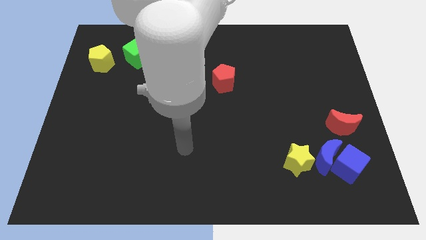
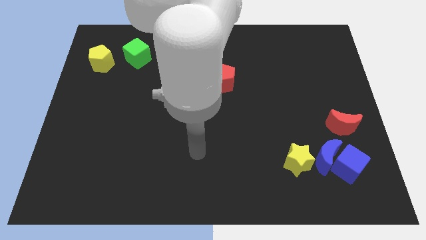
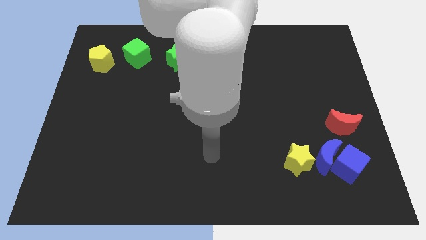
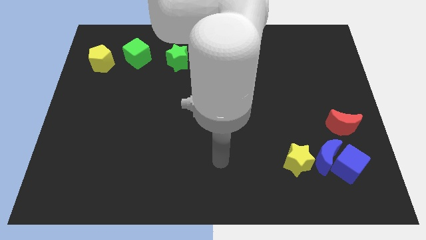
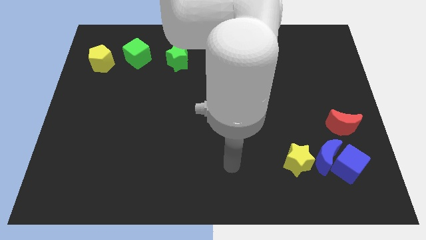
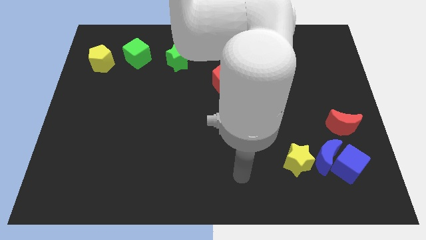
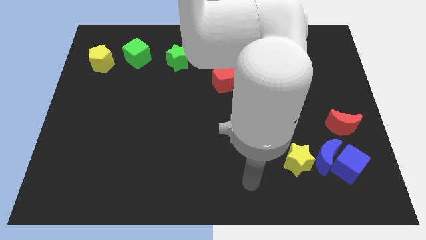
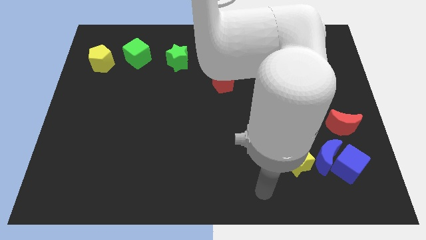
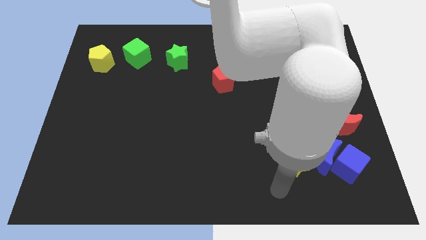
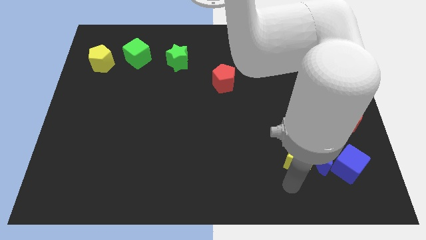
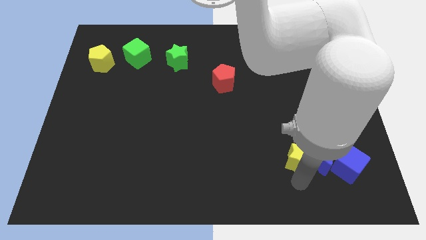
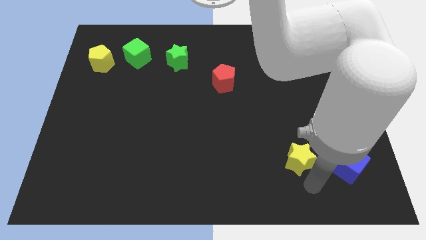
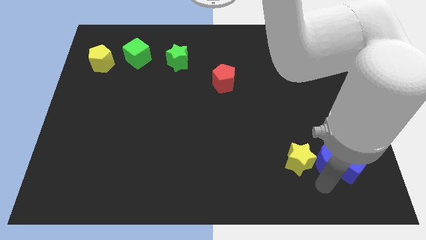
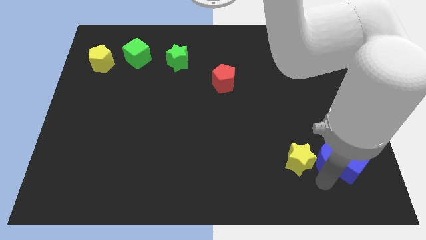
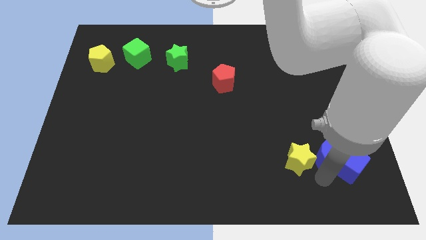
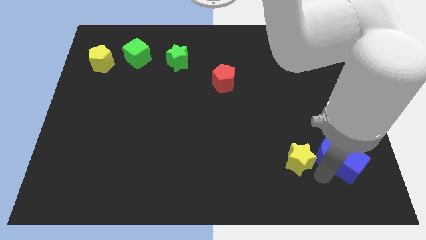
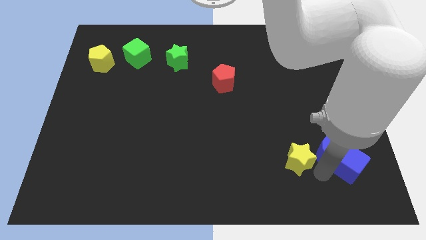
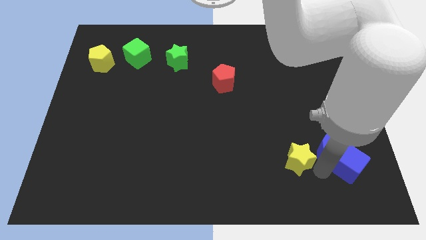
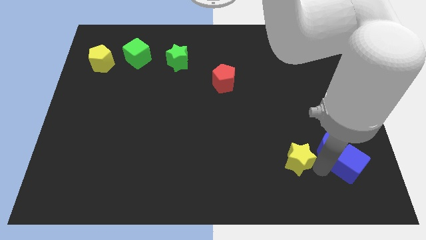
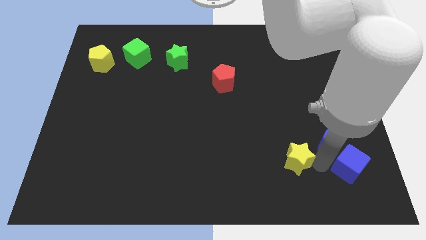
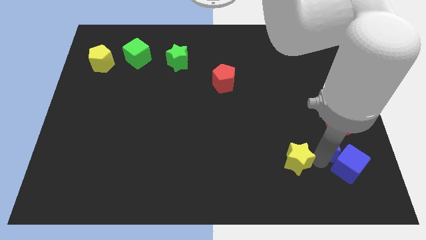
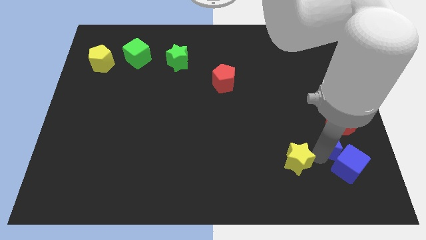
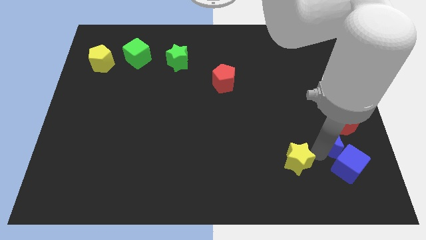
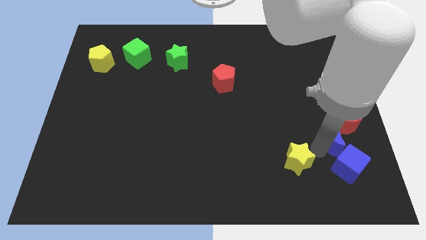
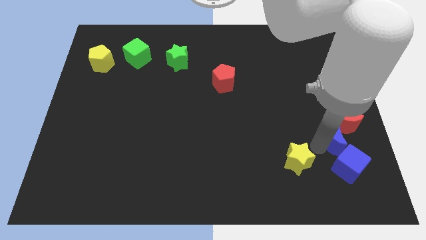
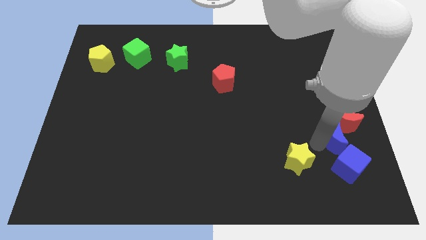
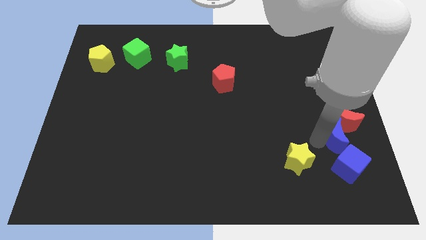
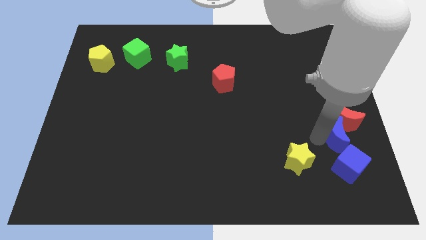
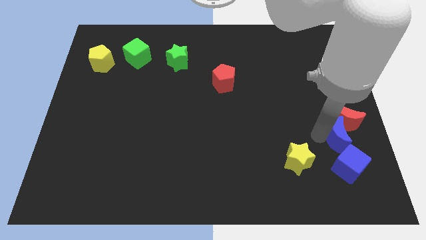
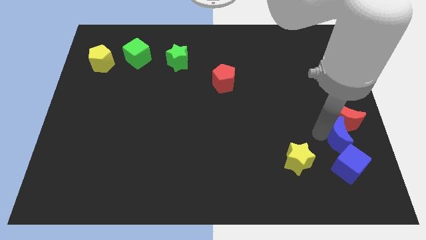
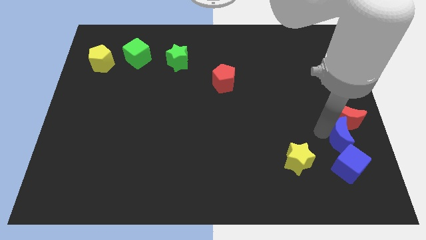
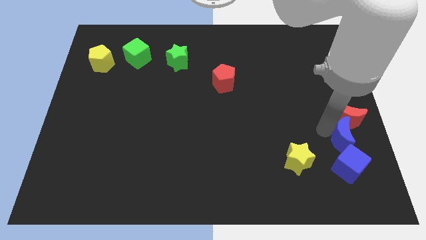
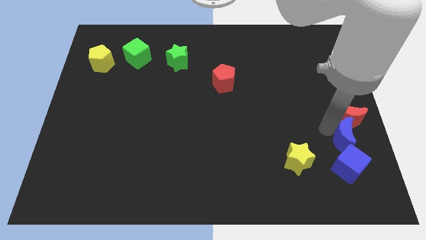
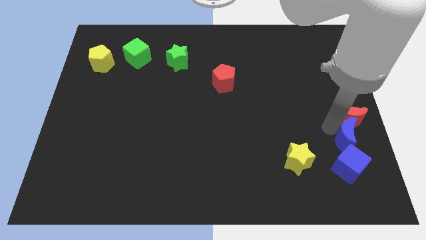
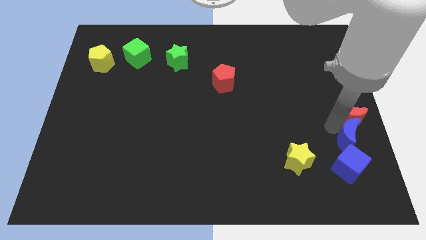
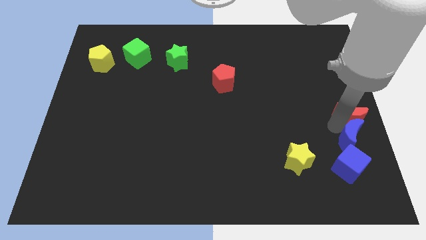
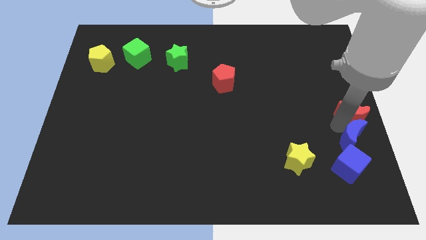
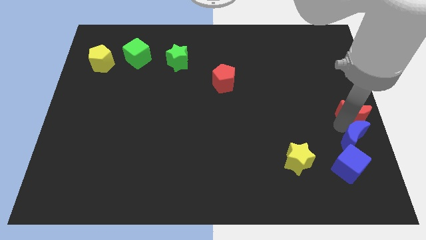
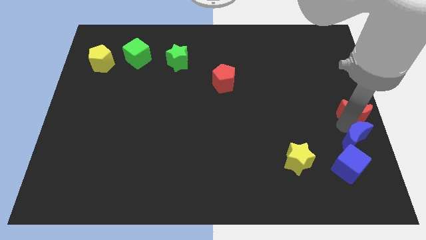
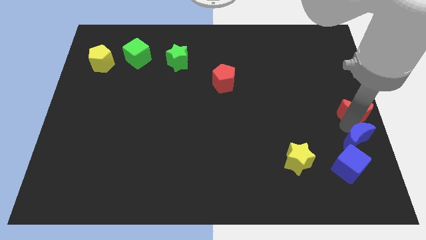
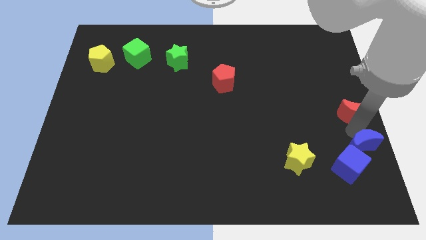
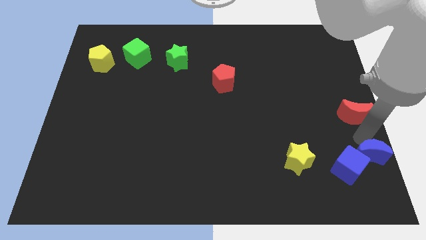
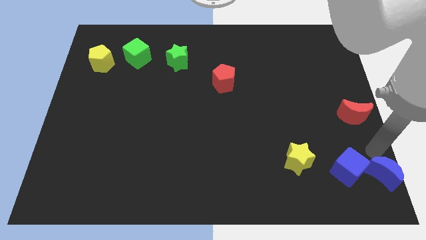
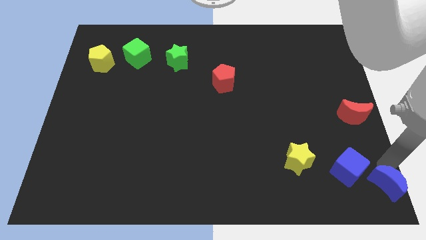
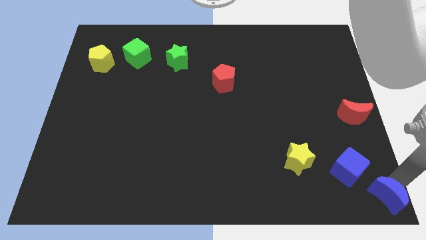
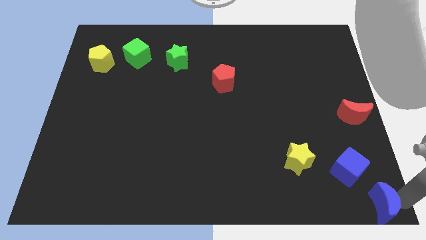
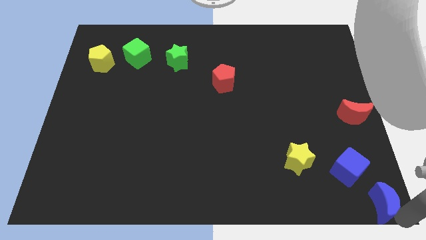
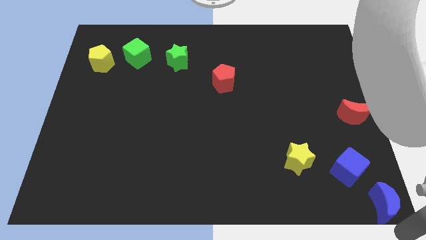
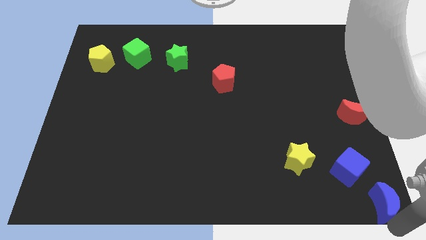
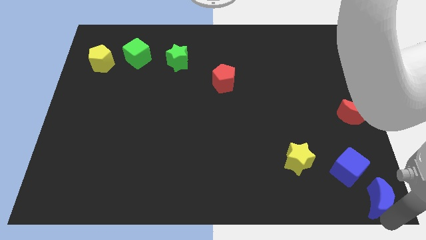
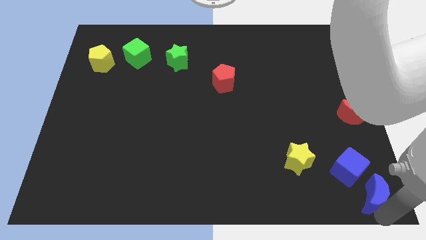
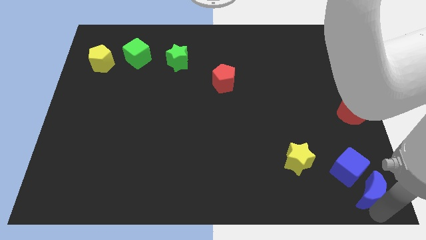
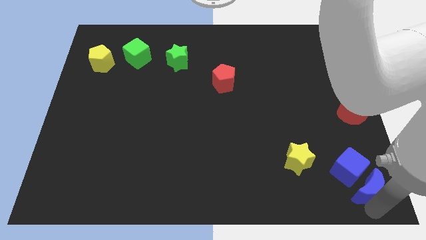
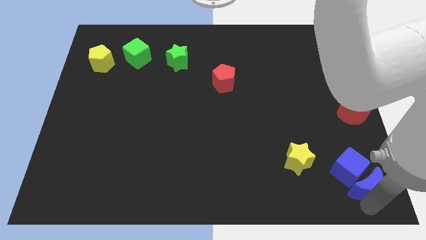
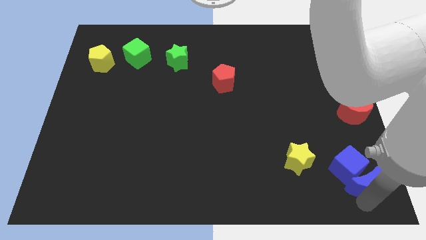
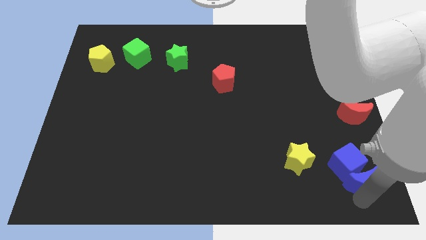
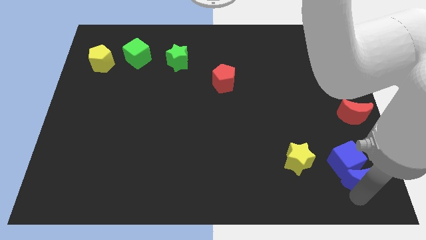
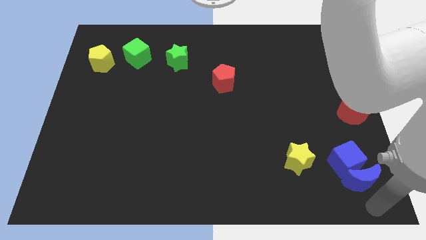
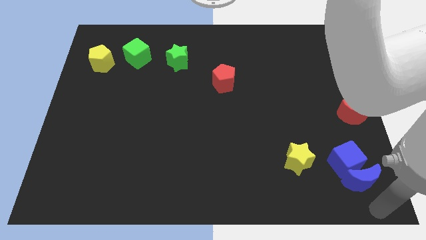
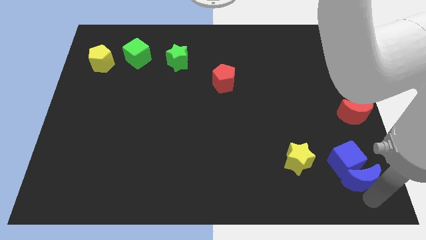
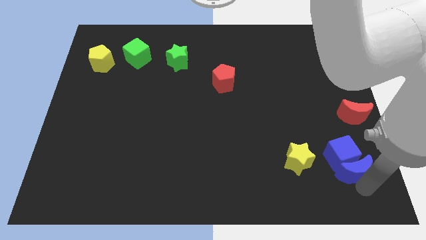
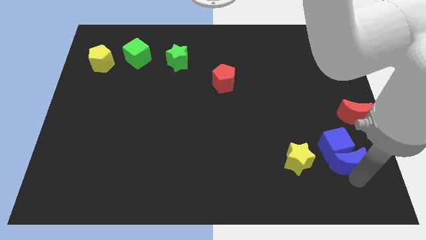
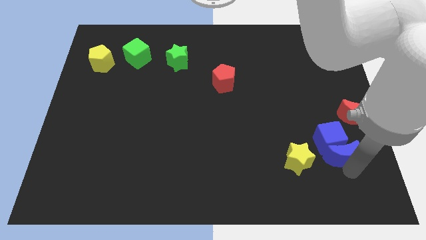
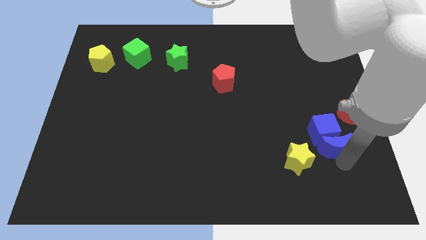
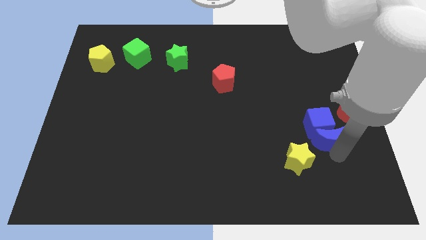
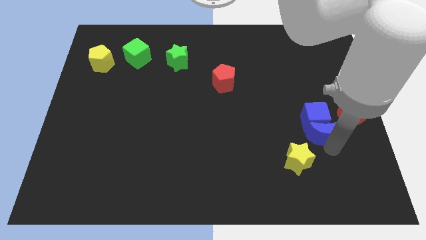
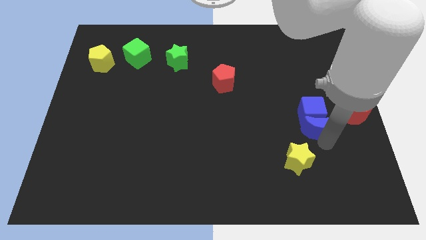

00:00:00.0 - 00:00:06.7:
move the blue moon a little bit upwards

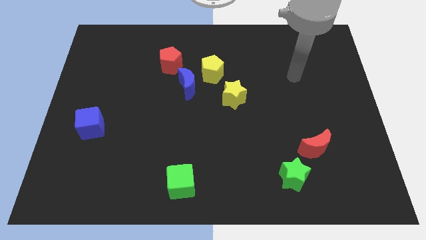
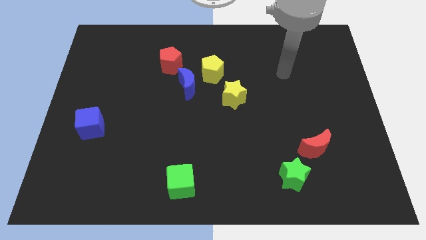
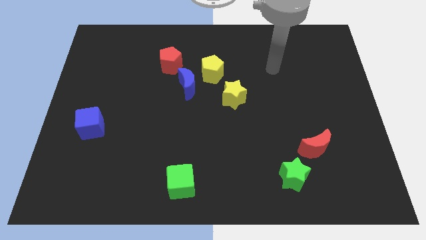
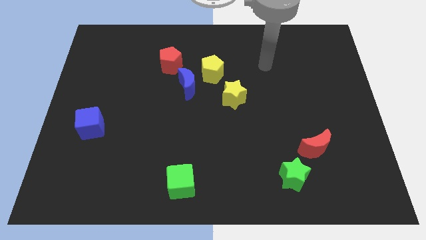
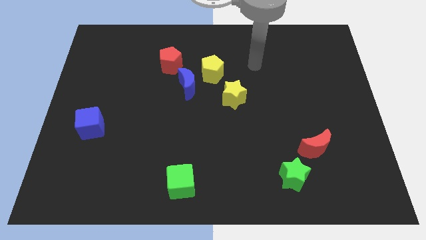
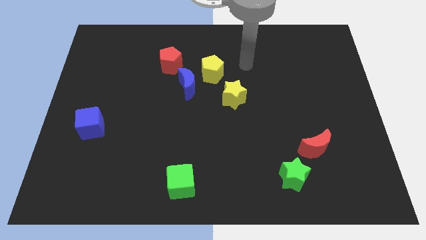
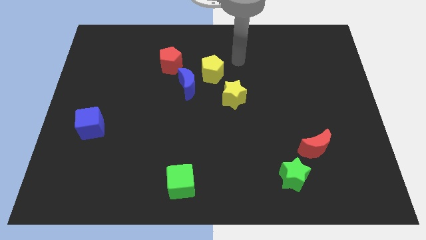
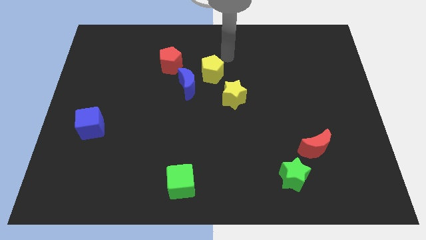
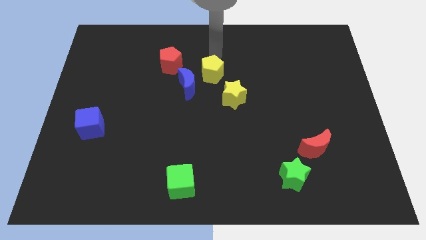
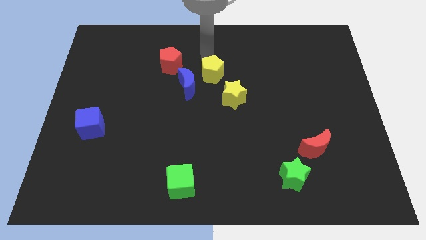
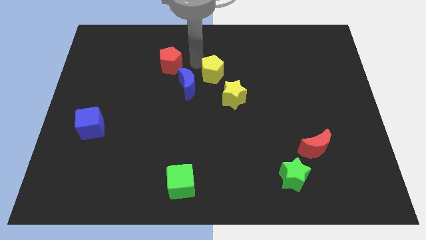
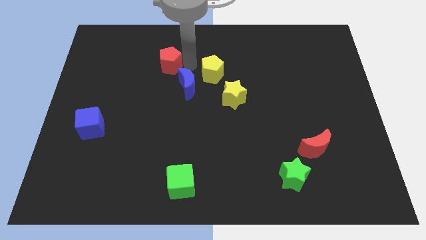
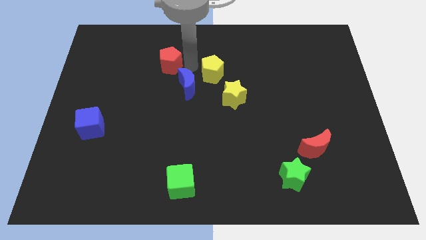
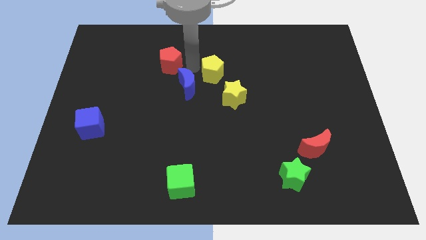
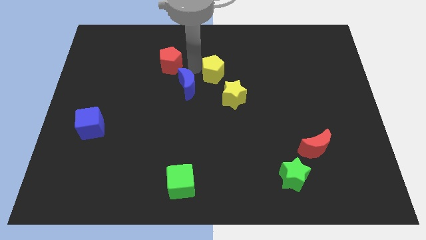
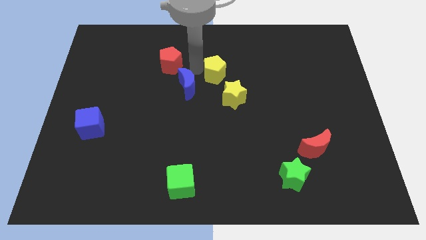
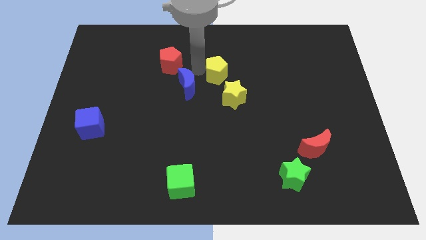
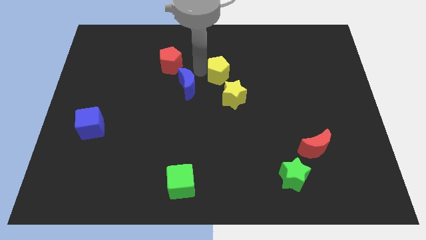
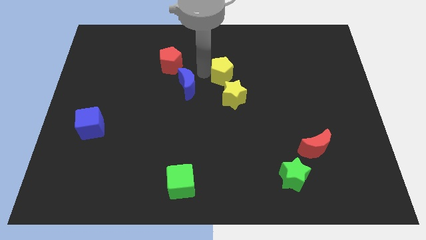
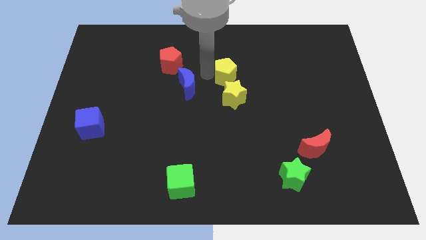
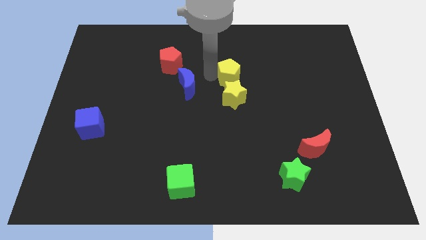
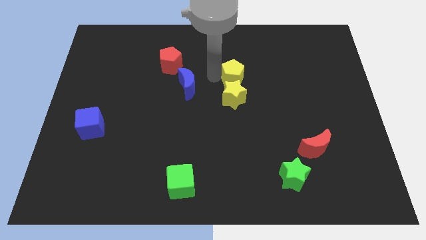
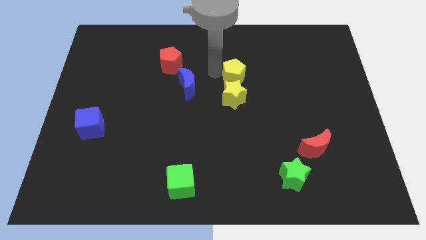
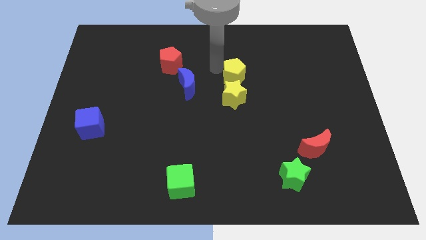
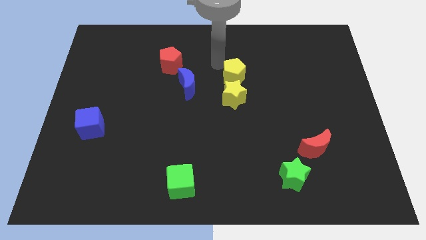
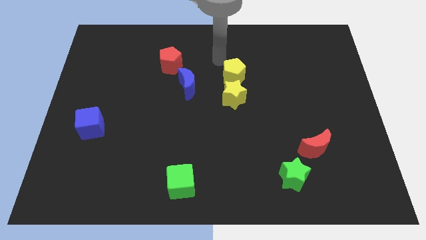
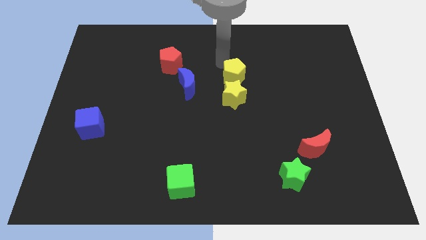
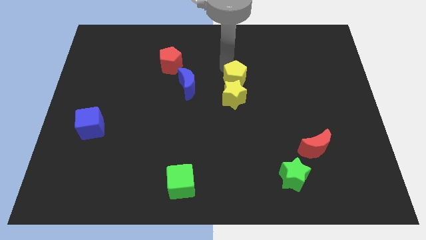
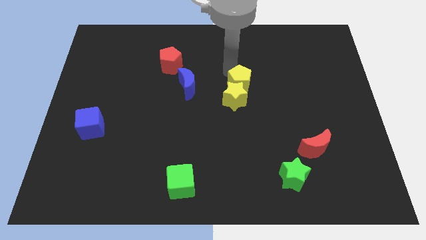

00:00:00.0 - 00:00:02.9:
slide the yellow pentagon a bit downwards and to the right
